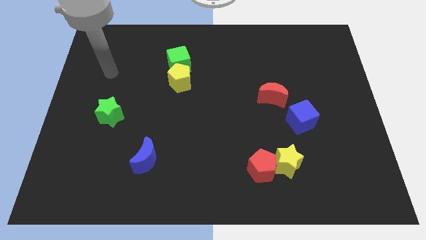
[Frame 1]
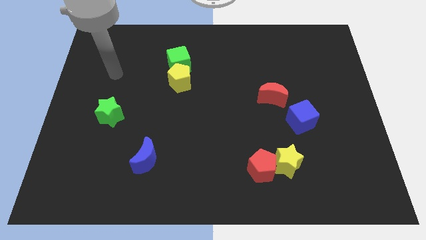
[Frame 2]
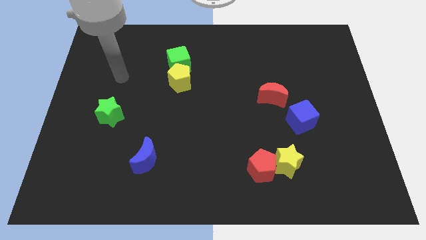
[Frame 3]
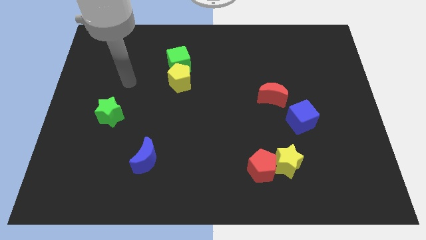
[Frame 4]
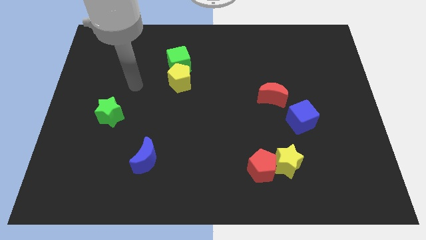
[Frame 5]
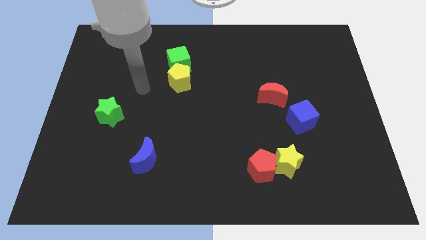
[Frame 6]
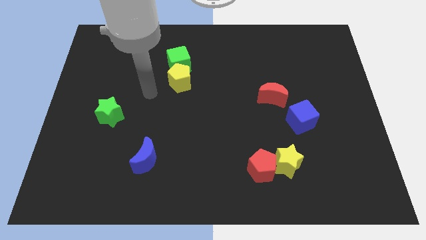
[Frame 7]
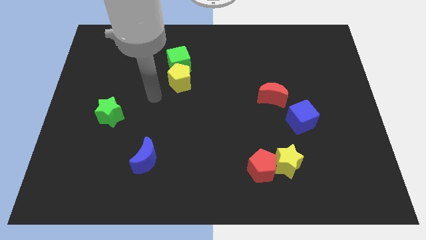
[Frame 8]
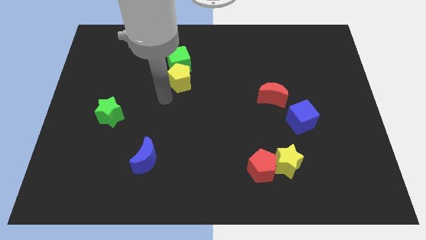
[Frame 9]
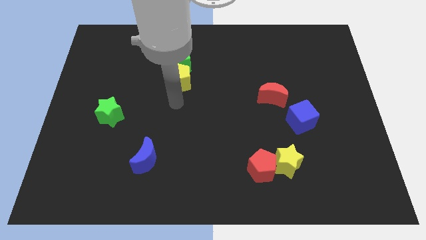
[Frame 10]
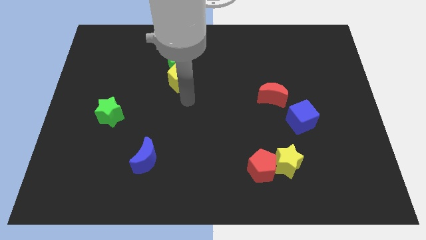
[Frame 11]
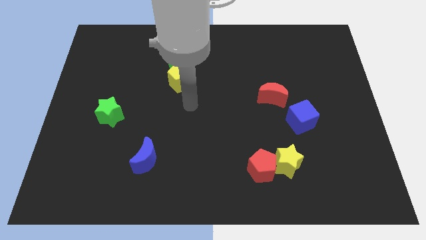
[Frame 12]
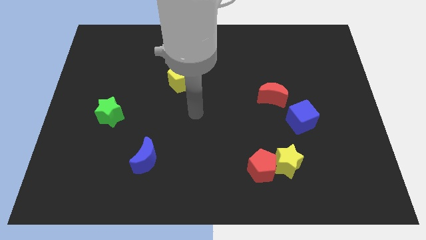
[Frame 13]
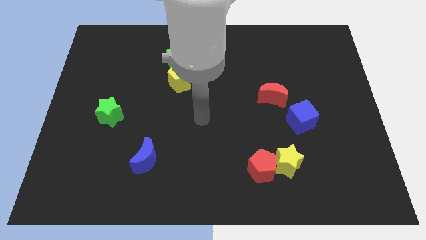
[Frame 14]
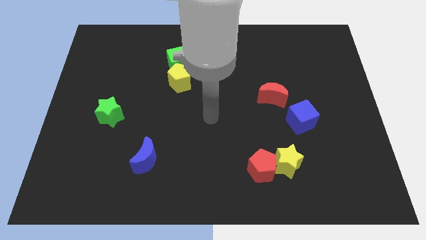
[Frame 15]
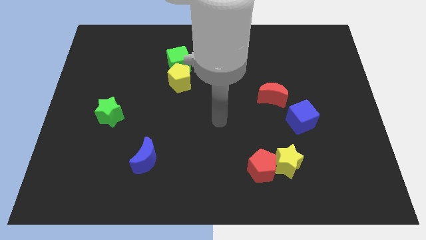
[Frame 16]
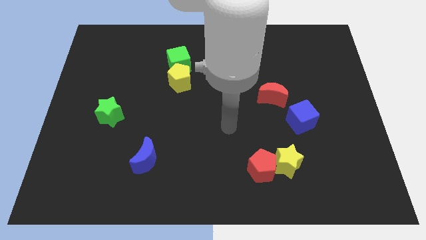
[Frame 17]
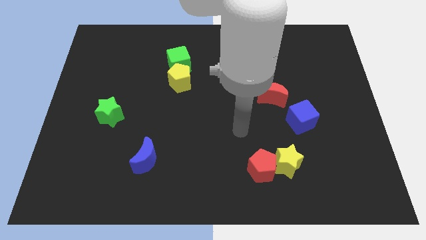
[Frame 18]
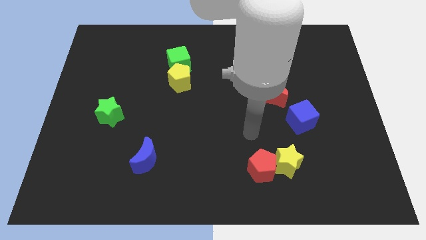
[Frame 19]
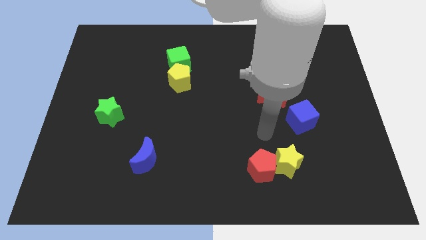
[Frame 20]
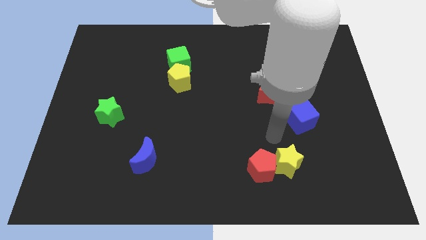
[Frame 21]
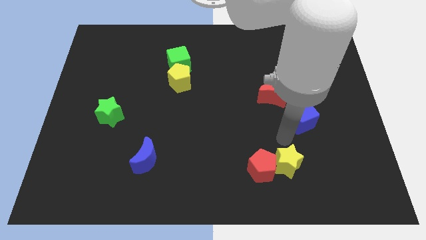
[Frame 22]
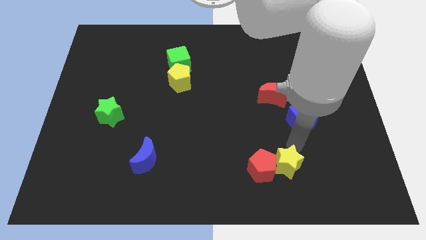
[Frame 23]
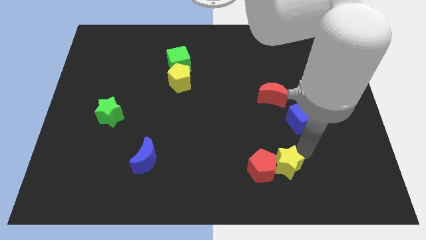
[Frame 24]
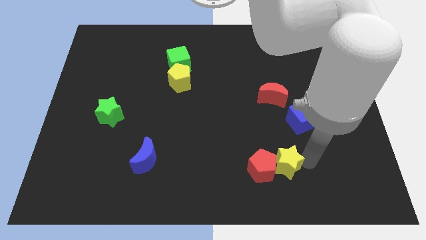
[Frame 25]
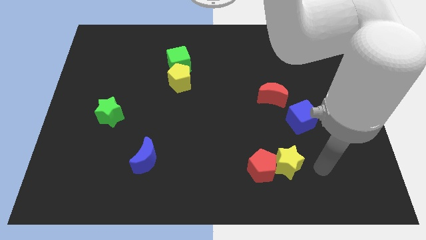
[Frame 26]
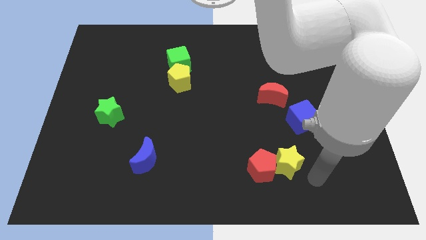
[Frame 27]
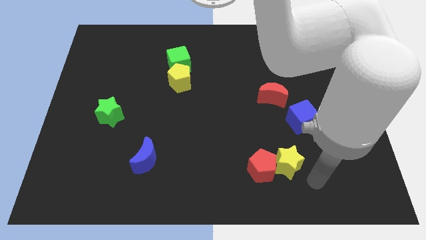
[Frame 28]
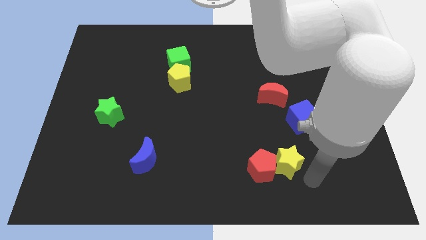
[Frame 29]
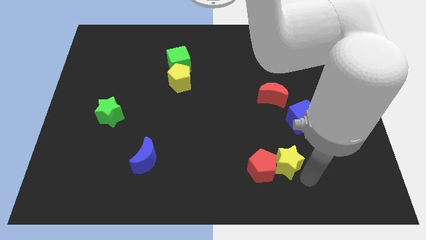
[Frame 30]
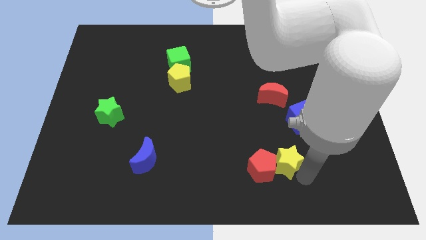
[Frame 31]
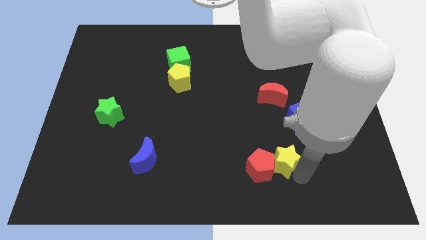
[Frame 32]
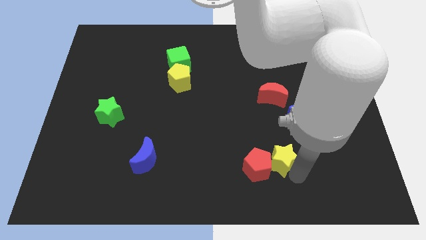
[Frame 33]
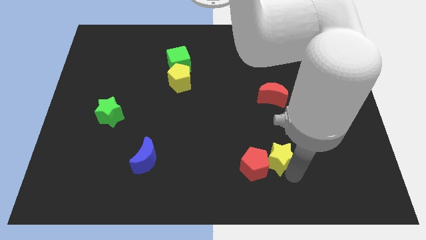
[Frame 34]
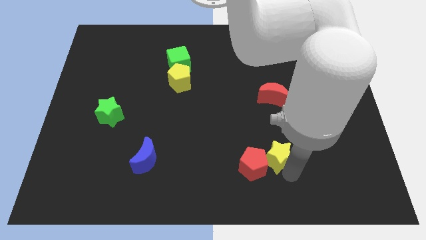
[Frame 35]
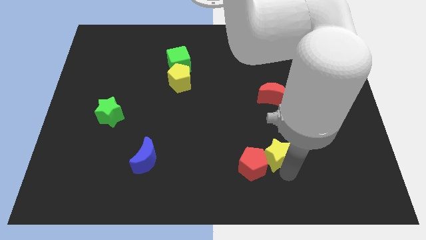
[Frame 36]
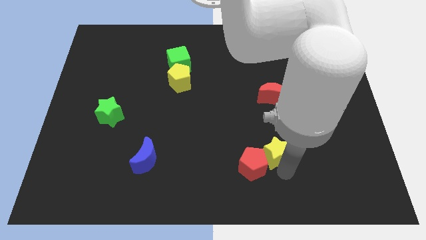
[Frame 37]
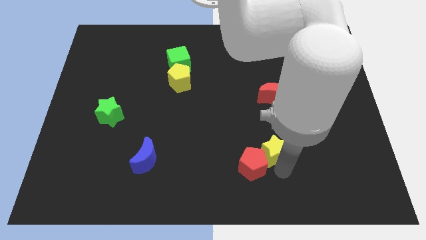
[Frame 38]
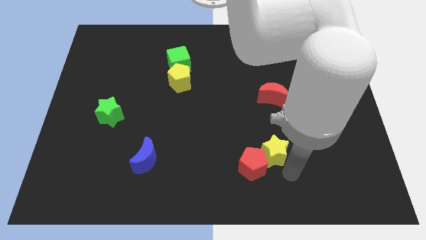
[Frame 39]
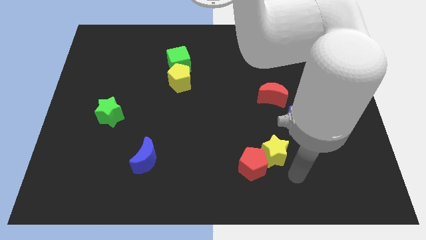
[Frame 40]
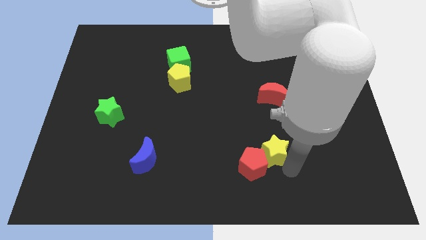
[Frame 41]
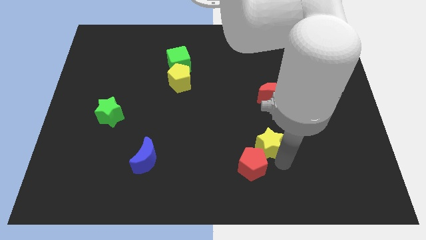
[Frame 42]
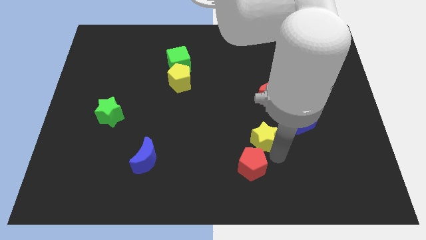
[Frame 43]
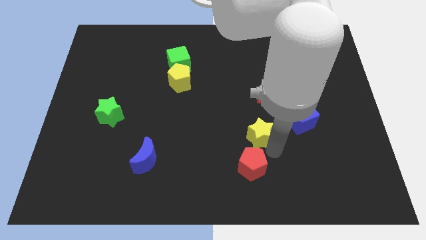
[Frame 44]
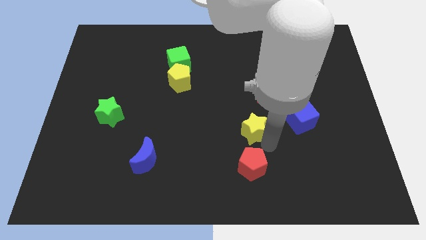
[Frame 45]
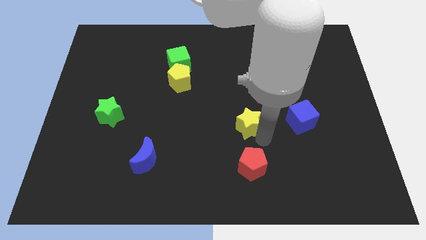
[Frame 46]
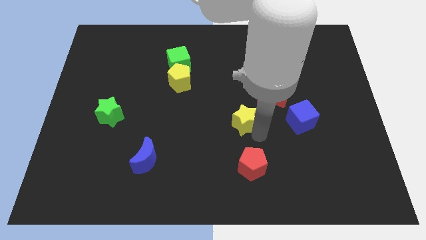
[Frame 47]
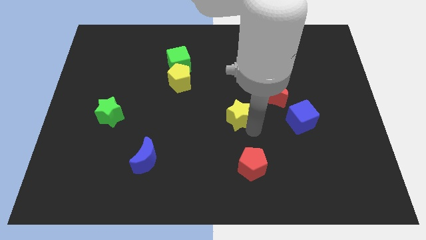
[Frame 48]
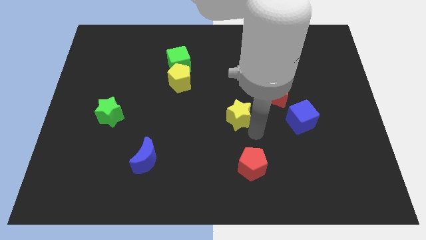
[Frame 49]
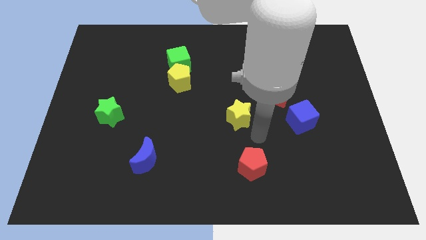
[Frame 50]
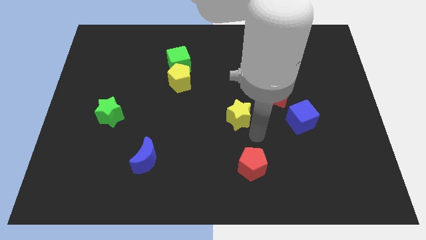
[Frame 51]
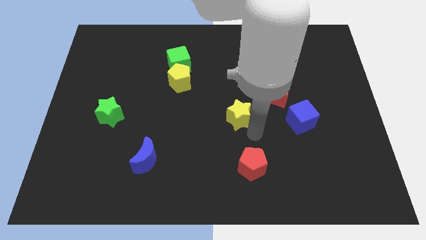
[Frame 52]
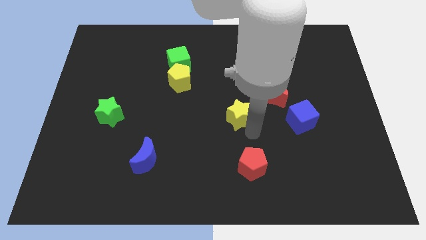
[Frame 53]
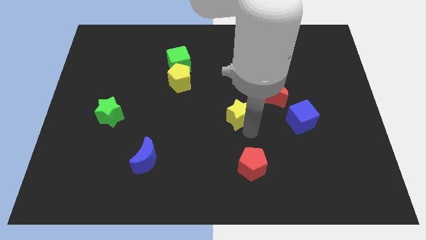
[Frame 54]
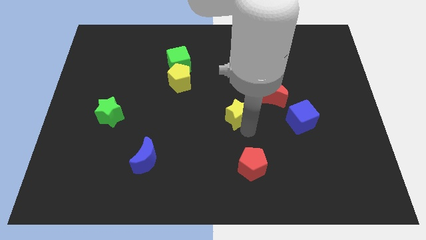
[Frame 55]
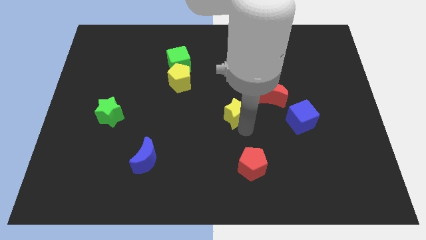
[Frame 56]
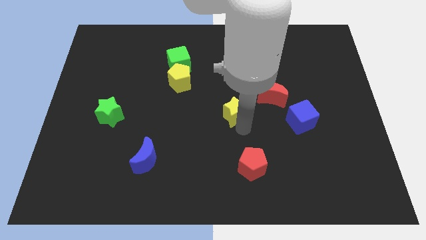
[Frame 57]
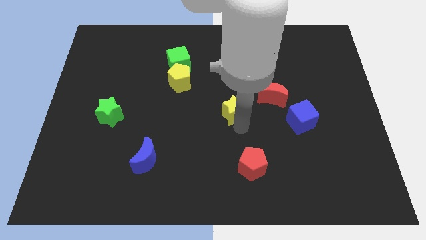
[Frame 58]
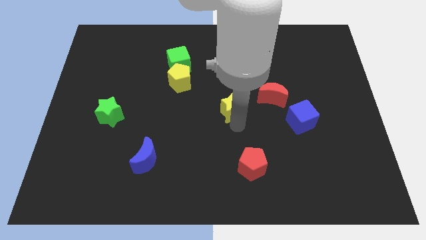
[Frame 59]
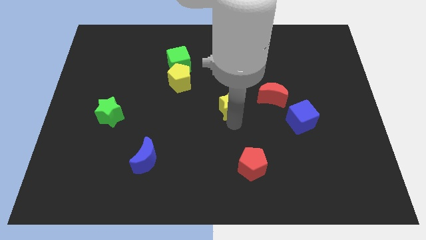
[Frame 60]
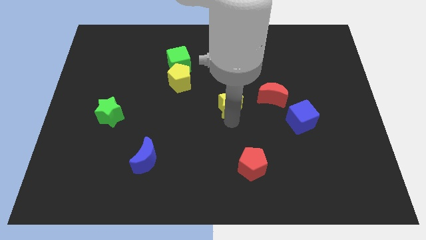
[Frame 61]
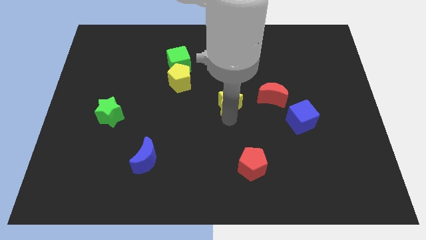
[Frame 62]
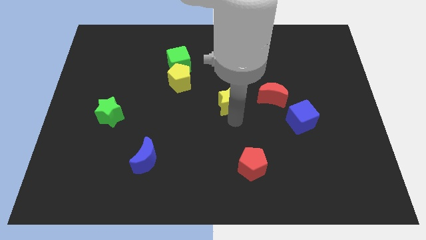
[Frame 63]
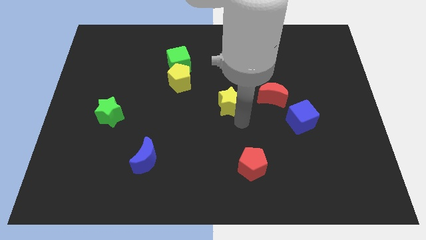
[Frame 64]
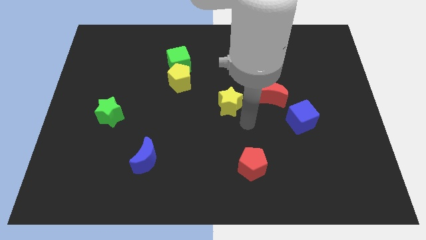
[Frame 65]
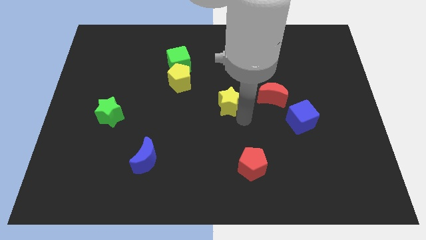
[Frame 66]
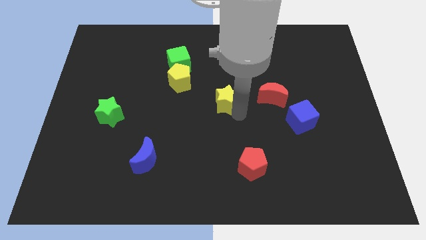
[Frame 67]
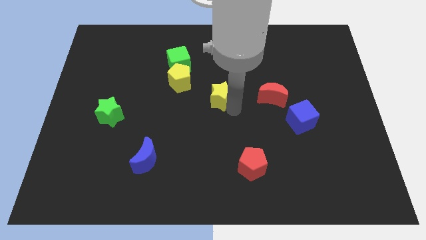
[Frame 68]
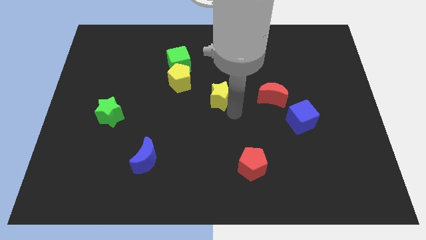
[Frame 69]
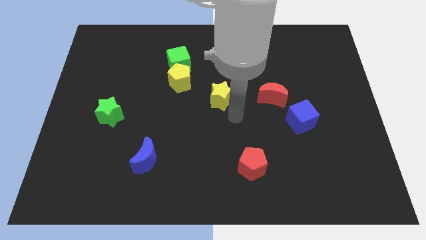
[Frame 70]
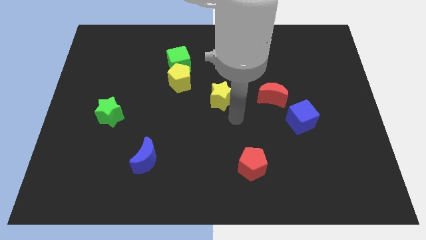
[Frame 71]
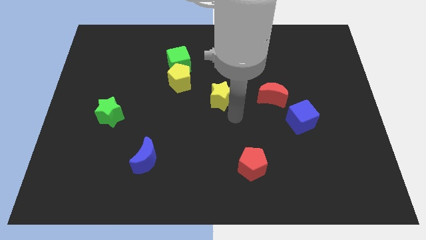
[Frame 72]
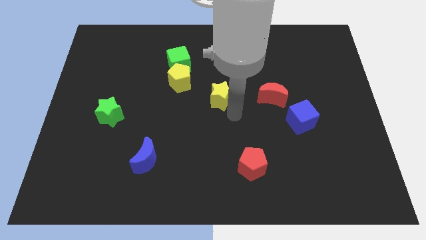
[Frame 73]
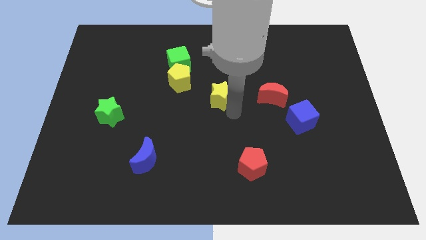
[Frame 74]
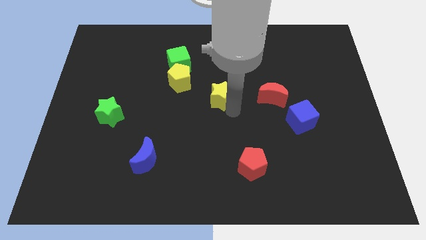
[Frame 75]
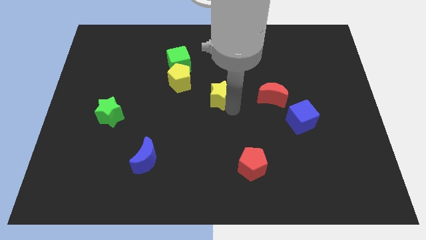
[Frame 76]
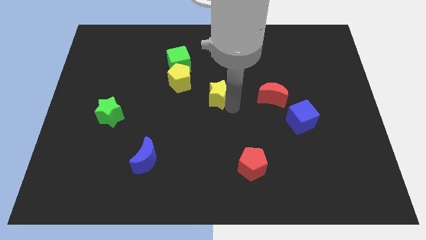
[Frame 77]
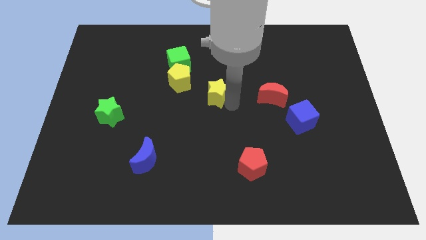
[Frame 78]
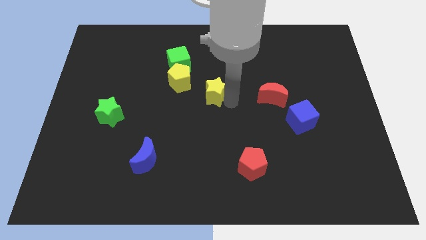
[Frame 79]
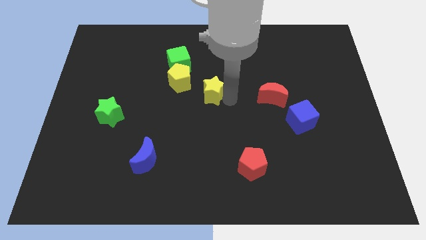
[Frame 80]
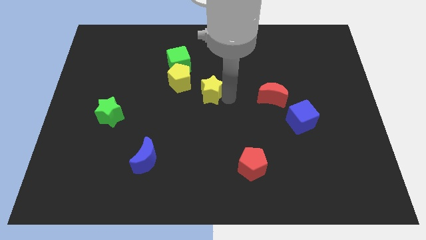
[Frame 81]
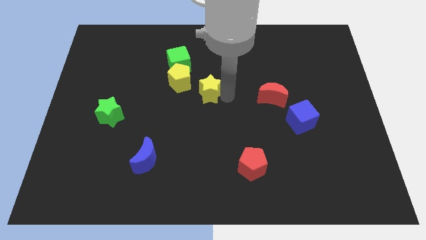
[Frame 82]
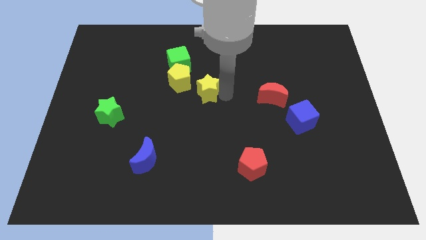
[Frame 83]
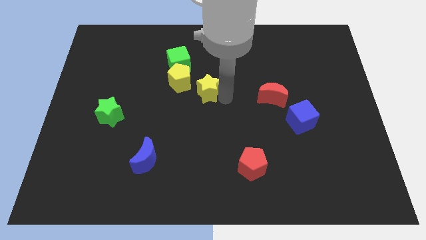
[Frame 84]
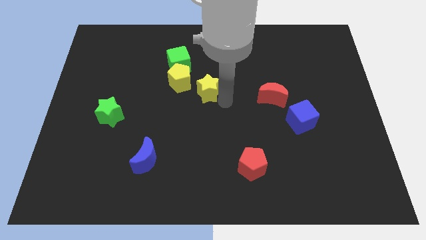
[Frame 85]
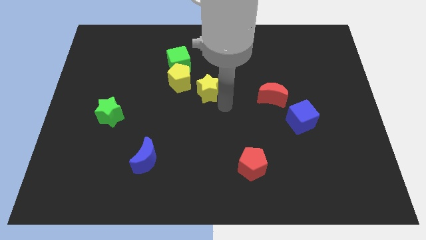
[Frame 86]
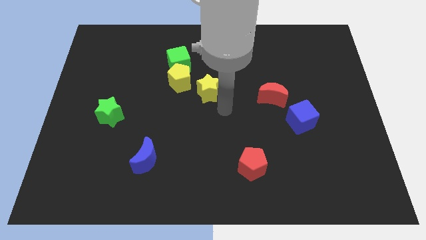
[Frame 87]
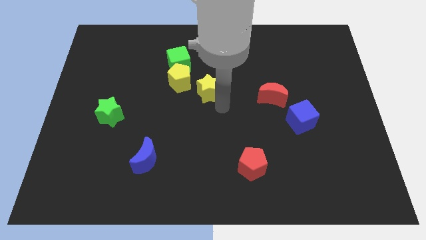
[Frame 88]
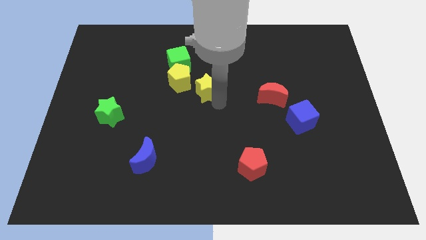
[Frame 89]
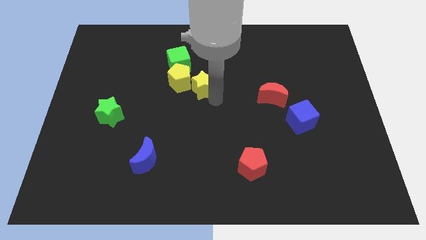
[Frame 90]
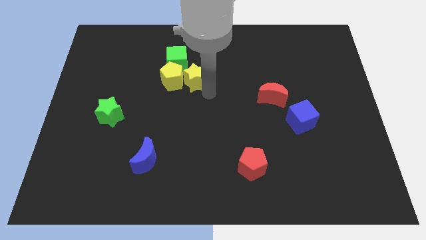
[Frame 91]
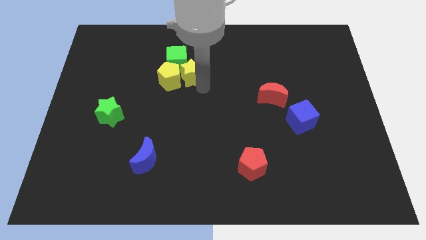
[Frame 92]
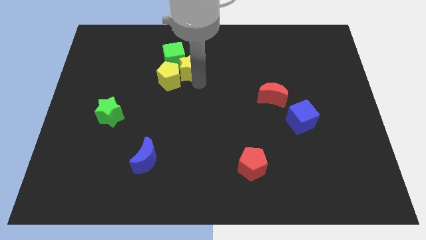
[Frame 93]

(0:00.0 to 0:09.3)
push the yellow star to the green cube
